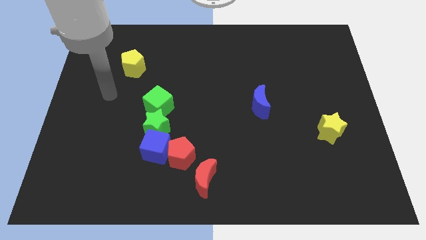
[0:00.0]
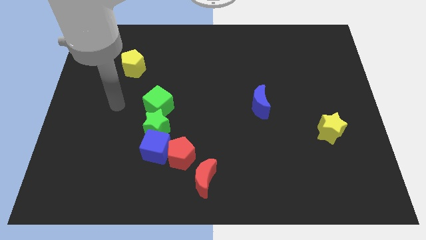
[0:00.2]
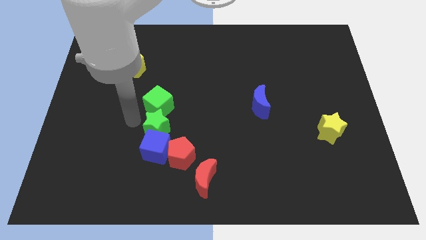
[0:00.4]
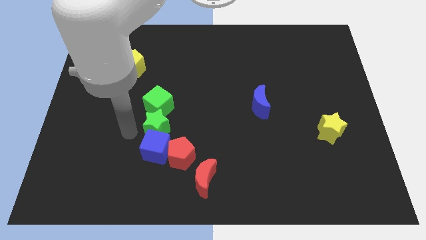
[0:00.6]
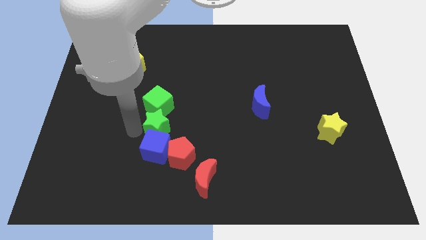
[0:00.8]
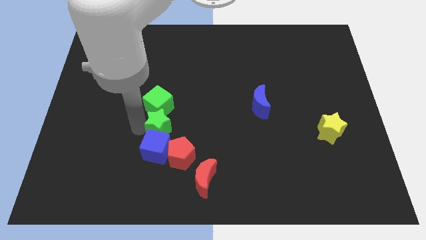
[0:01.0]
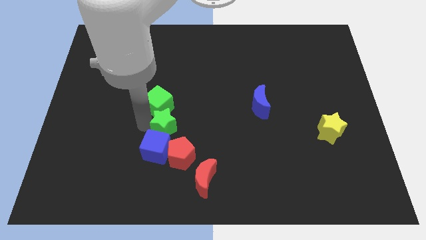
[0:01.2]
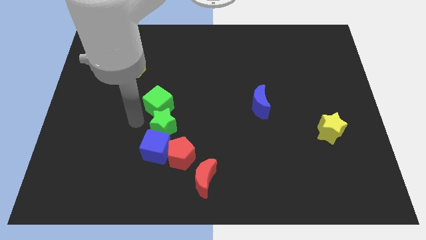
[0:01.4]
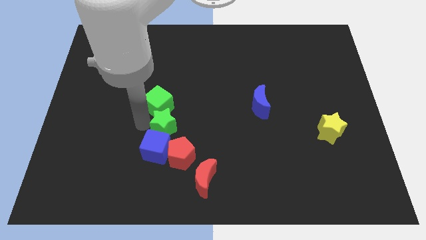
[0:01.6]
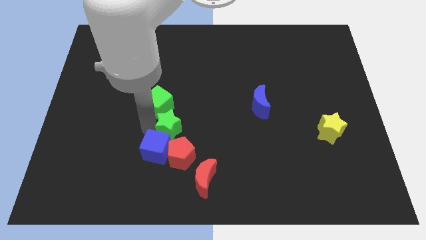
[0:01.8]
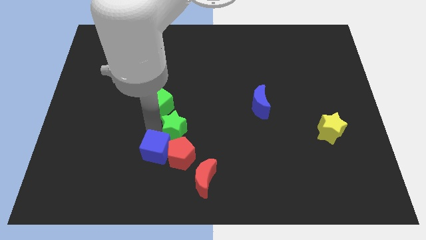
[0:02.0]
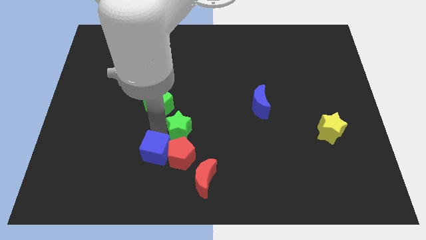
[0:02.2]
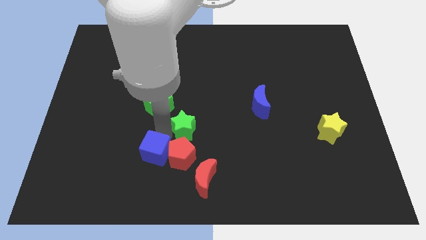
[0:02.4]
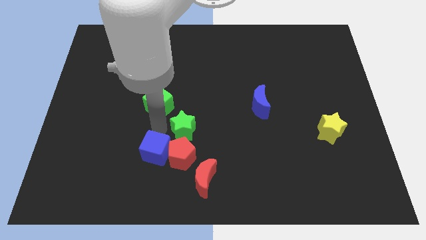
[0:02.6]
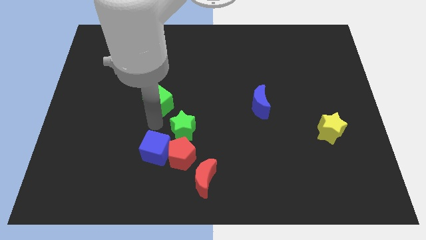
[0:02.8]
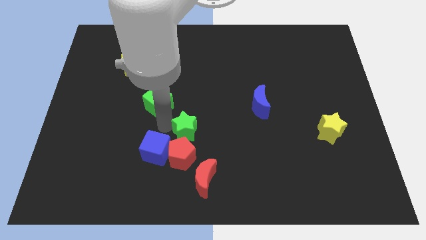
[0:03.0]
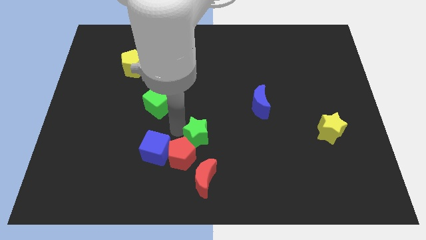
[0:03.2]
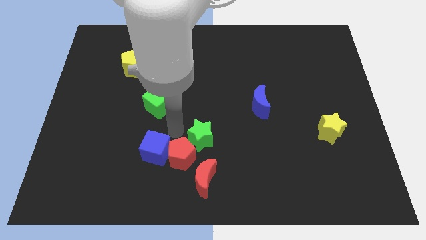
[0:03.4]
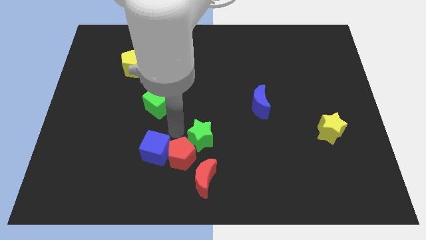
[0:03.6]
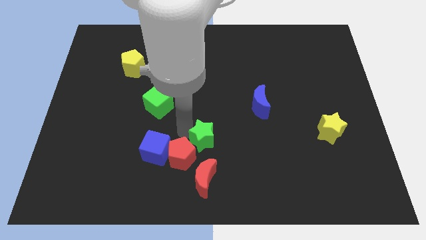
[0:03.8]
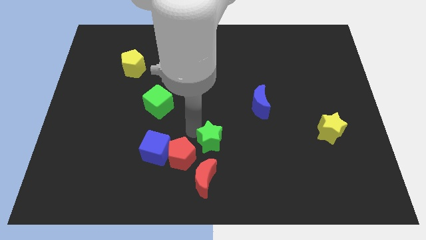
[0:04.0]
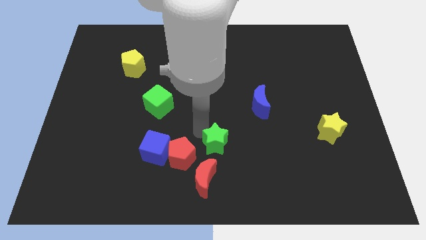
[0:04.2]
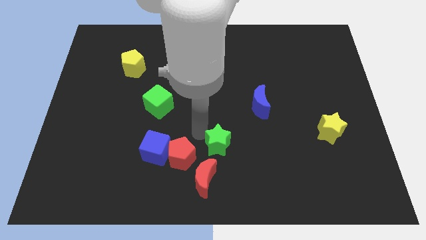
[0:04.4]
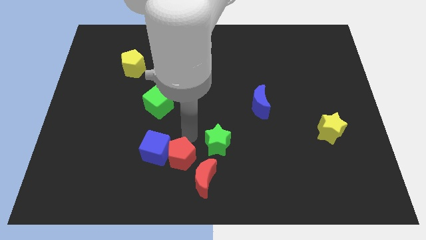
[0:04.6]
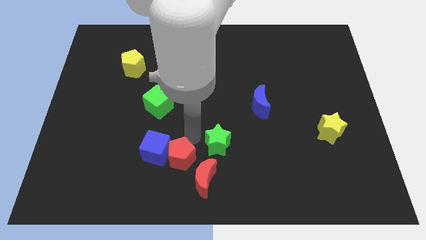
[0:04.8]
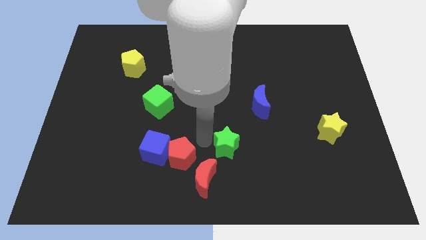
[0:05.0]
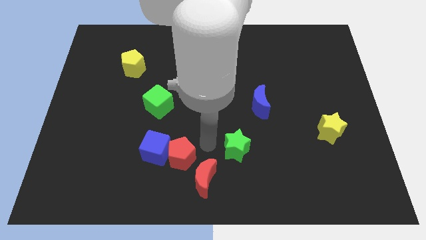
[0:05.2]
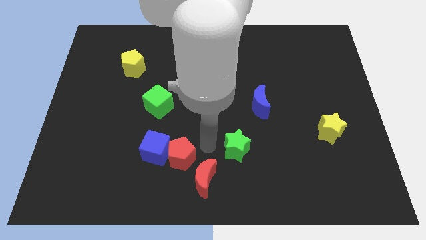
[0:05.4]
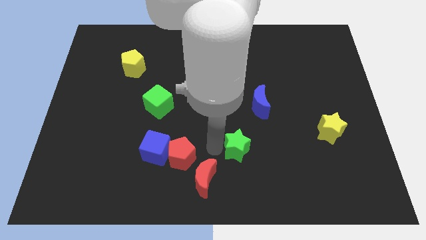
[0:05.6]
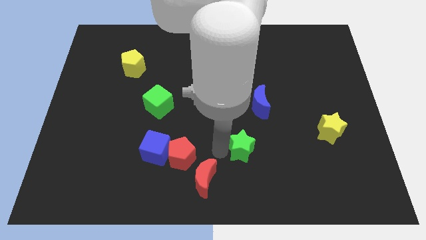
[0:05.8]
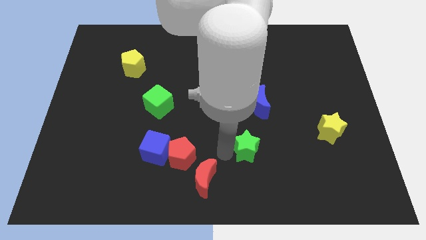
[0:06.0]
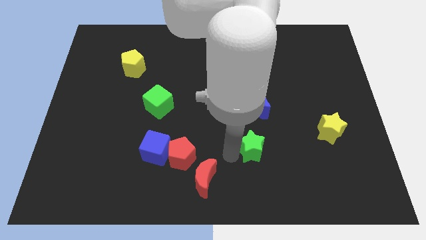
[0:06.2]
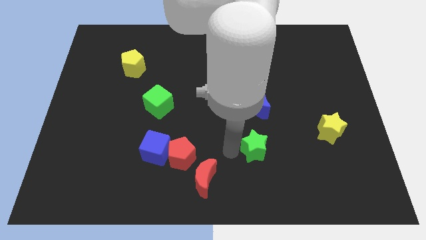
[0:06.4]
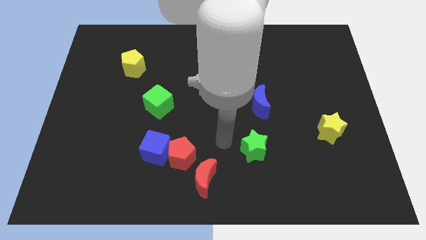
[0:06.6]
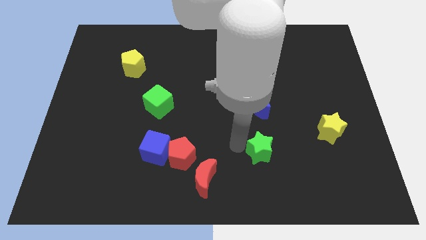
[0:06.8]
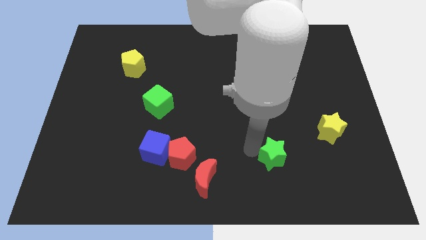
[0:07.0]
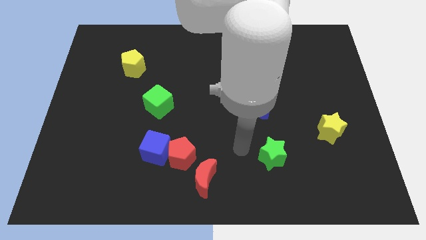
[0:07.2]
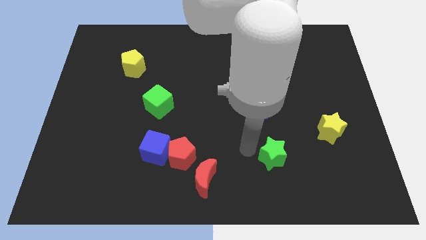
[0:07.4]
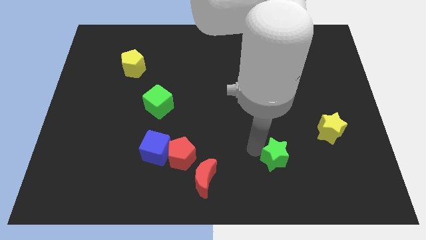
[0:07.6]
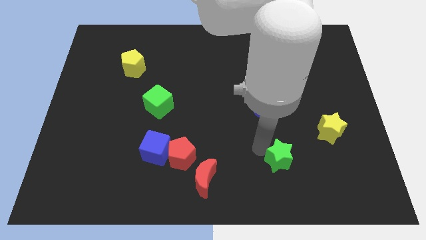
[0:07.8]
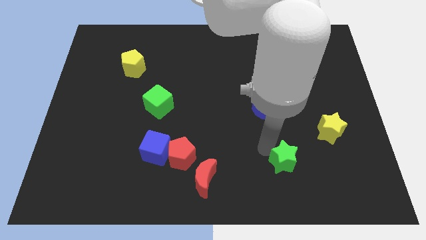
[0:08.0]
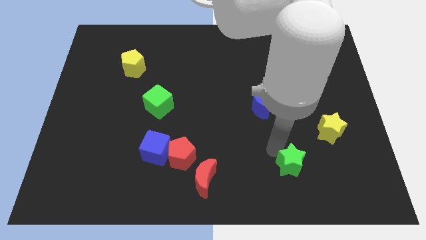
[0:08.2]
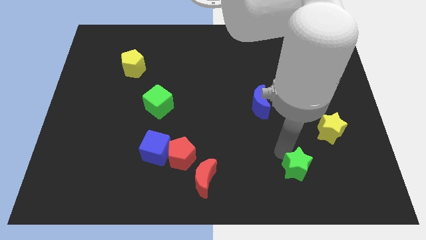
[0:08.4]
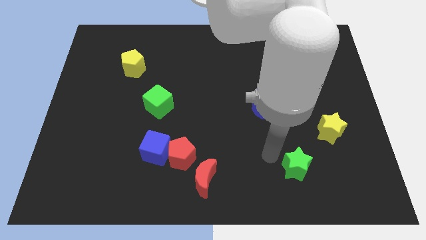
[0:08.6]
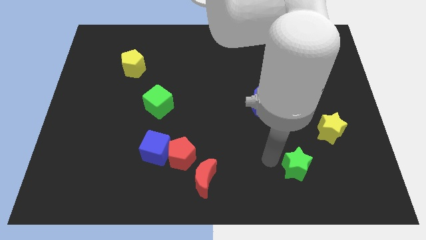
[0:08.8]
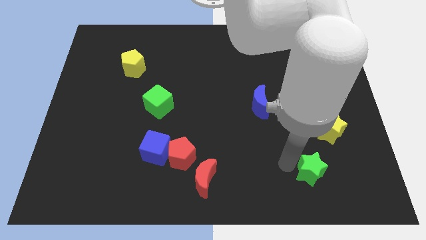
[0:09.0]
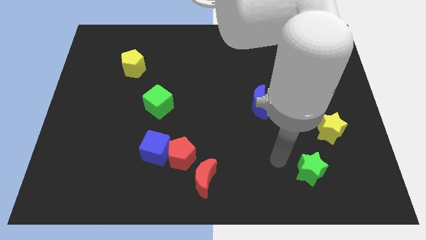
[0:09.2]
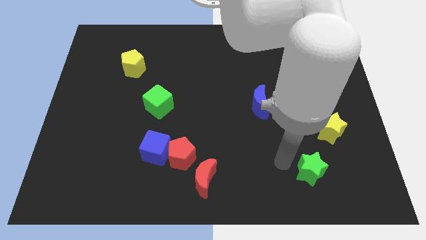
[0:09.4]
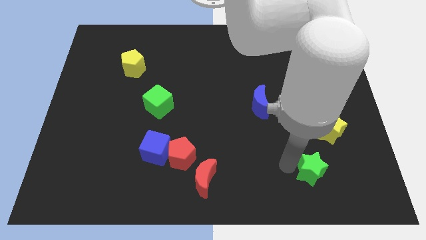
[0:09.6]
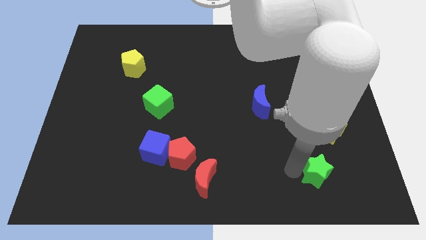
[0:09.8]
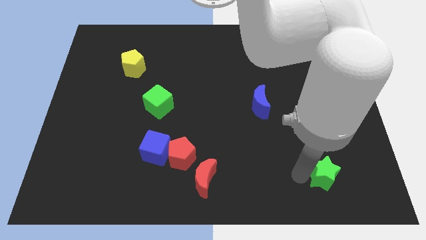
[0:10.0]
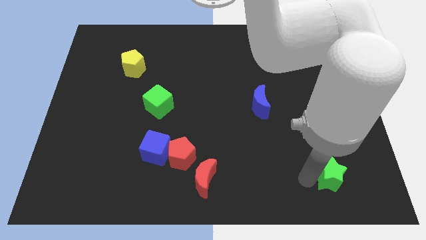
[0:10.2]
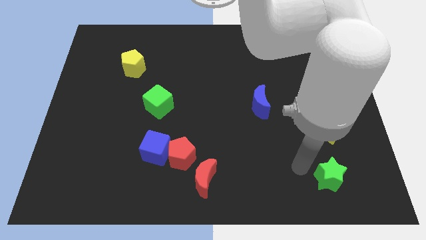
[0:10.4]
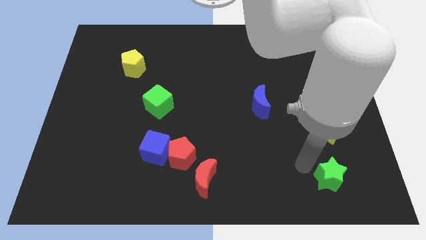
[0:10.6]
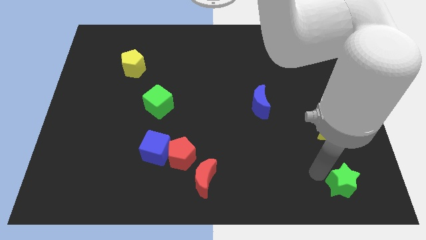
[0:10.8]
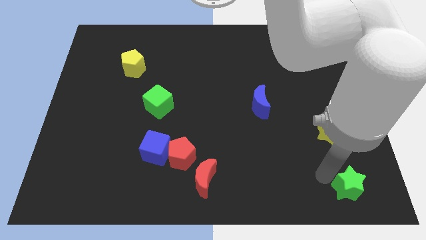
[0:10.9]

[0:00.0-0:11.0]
move the green star to the bottom right corner
